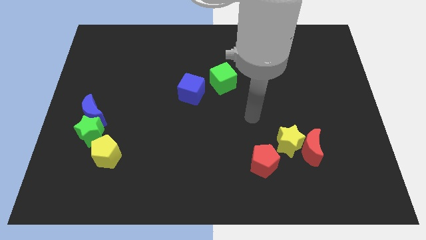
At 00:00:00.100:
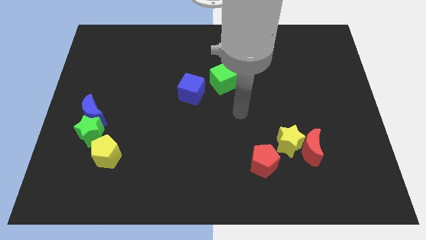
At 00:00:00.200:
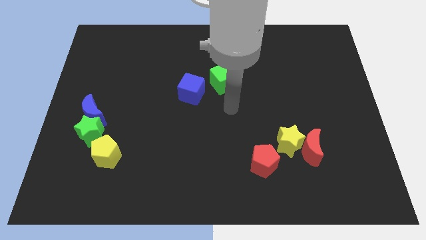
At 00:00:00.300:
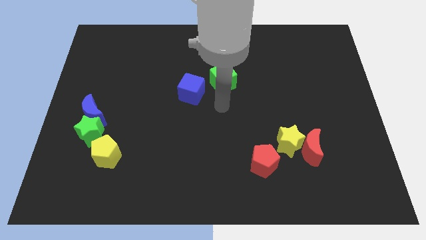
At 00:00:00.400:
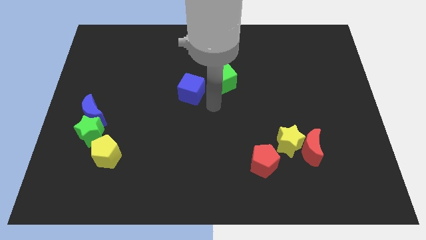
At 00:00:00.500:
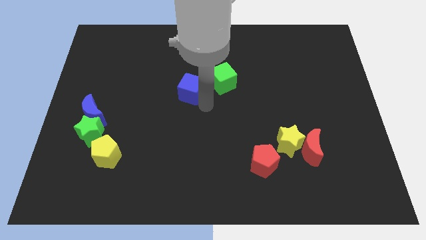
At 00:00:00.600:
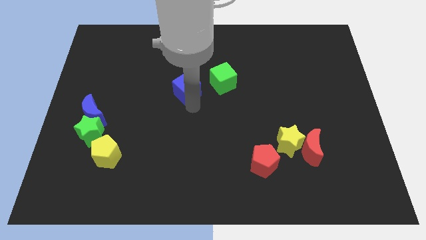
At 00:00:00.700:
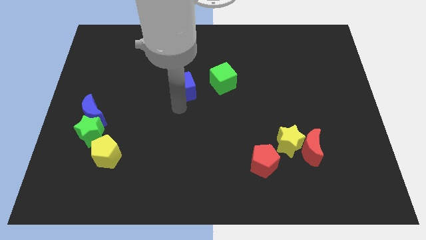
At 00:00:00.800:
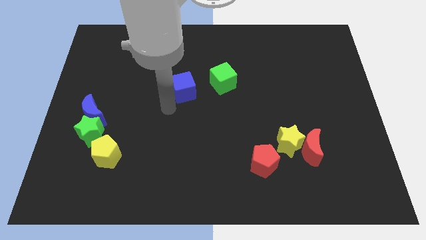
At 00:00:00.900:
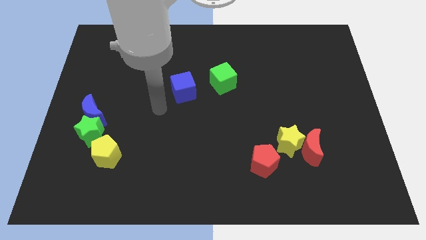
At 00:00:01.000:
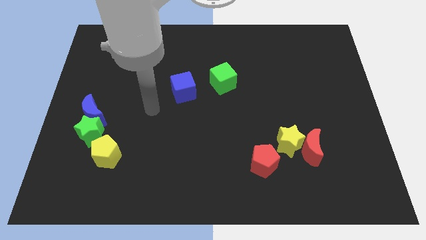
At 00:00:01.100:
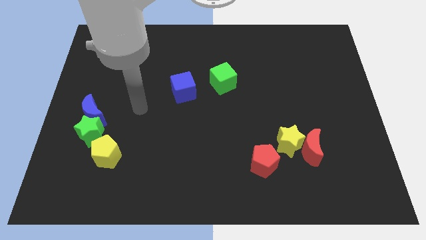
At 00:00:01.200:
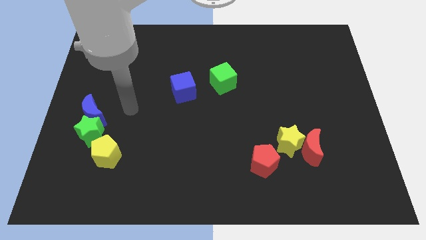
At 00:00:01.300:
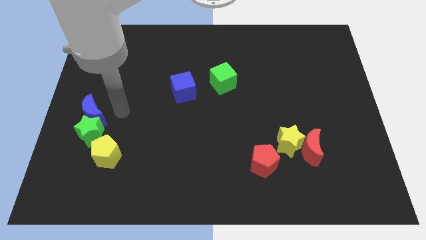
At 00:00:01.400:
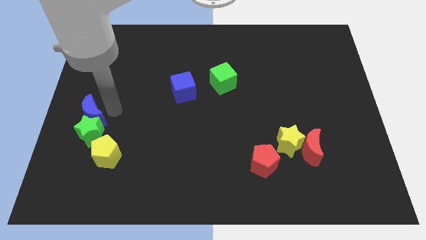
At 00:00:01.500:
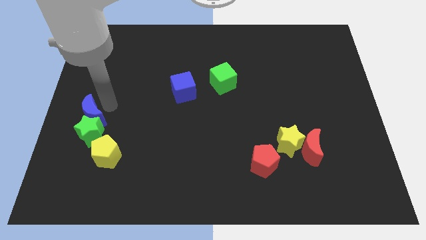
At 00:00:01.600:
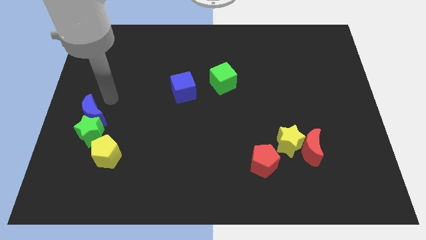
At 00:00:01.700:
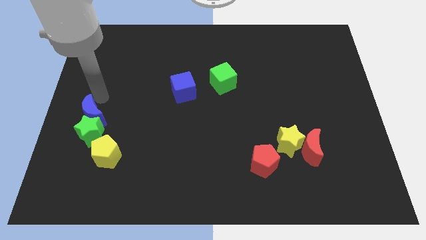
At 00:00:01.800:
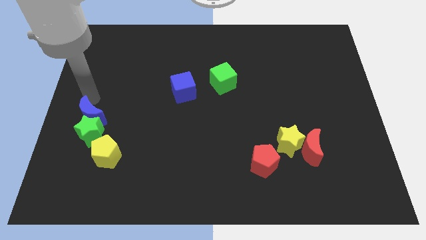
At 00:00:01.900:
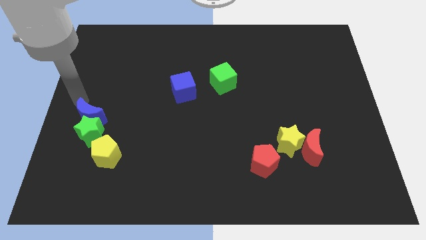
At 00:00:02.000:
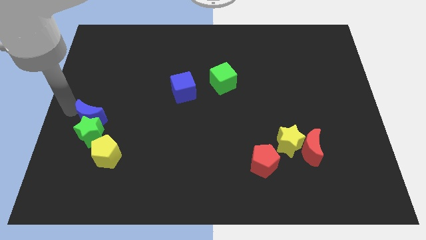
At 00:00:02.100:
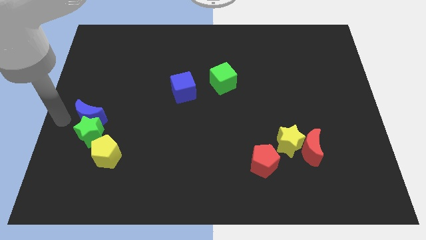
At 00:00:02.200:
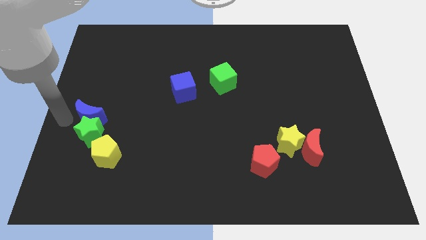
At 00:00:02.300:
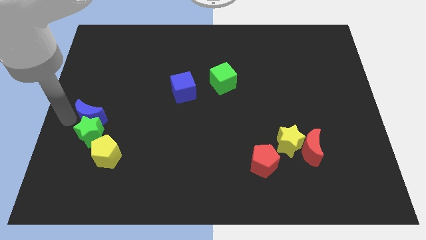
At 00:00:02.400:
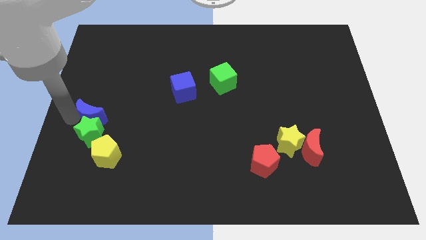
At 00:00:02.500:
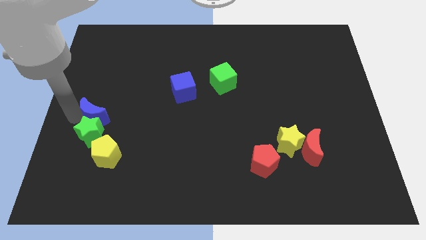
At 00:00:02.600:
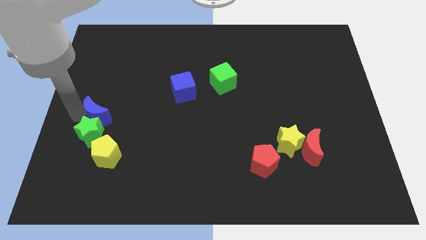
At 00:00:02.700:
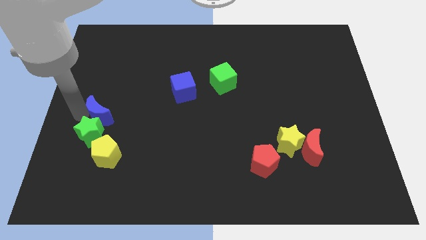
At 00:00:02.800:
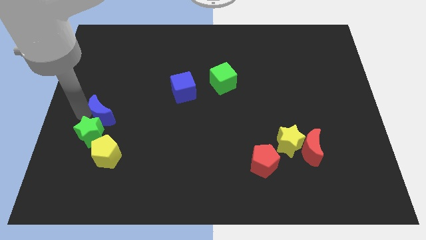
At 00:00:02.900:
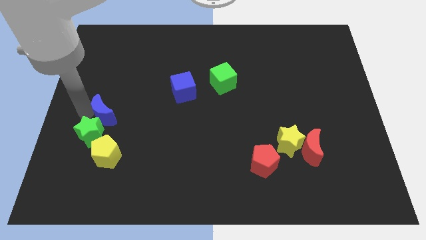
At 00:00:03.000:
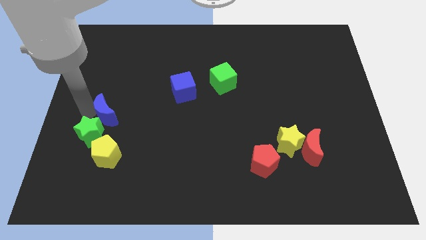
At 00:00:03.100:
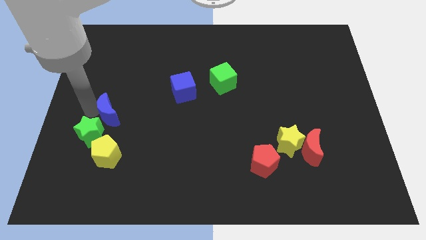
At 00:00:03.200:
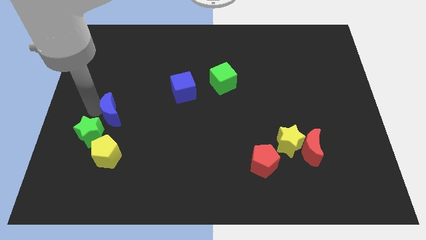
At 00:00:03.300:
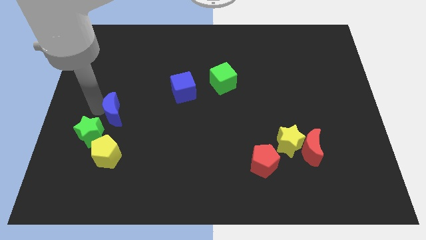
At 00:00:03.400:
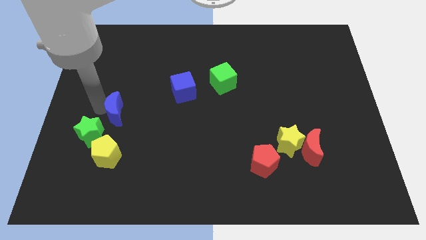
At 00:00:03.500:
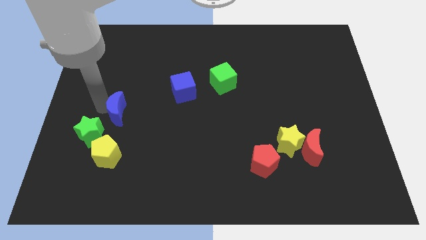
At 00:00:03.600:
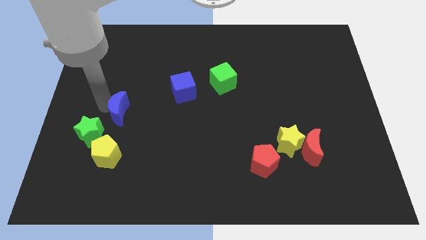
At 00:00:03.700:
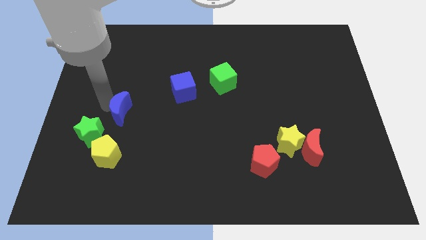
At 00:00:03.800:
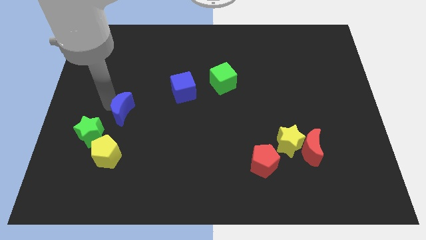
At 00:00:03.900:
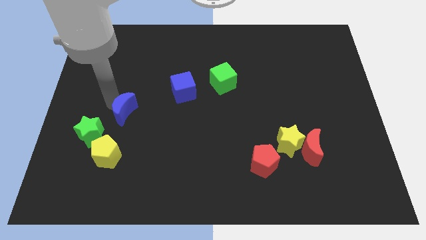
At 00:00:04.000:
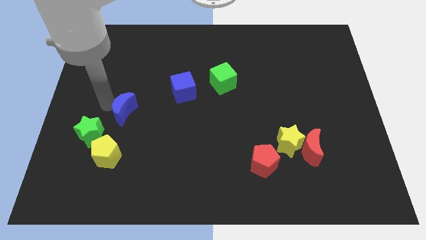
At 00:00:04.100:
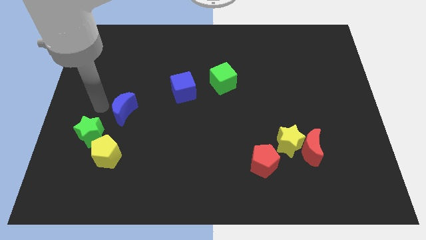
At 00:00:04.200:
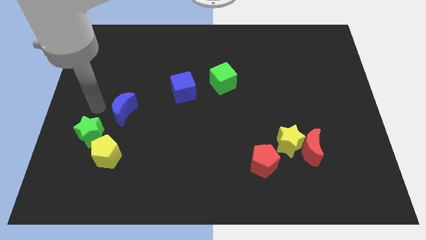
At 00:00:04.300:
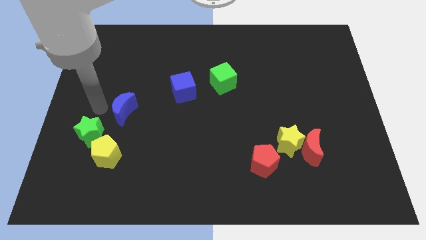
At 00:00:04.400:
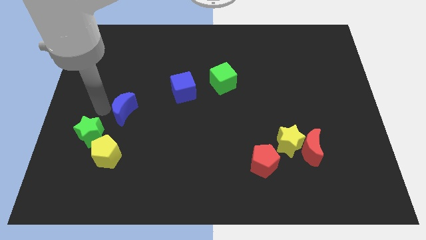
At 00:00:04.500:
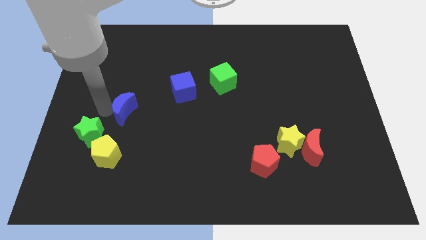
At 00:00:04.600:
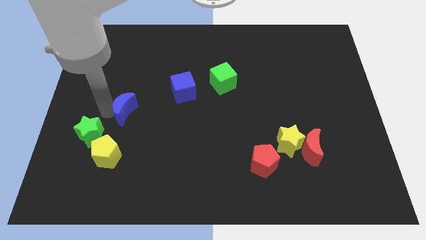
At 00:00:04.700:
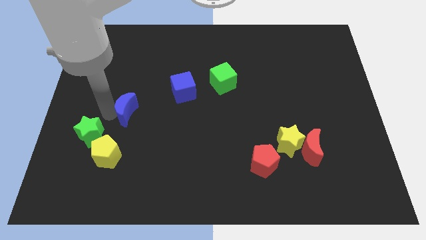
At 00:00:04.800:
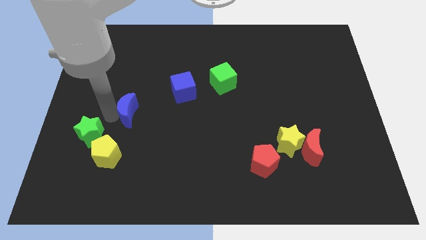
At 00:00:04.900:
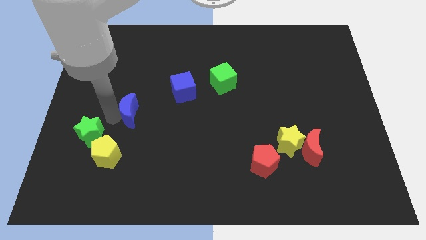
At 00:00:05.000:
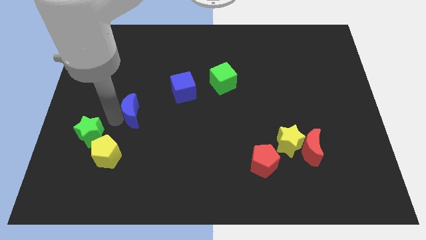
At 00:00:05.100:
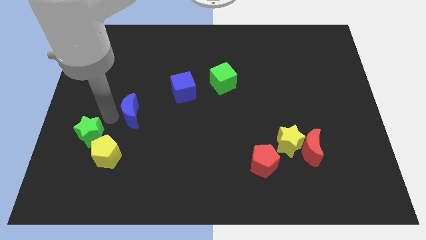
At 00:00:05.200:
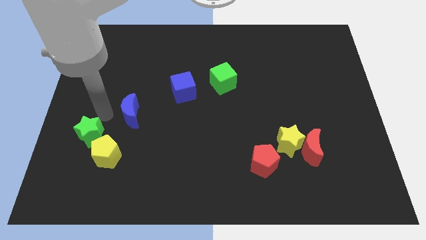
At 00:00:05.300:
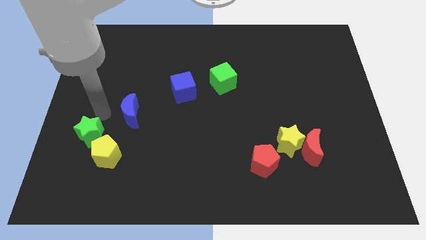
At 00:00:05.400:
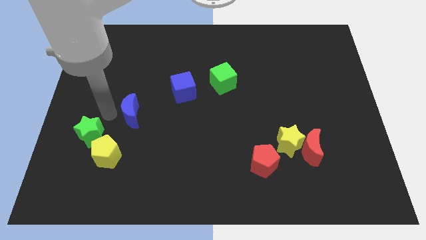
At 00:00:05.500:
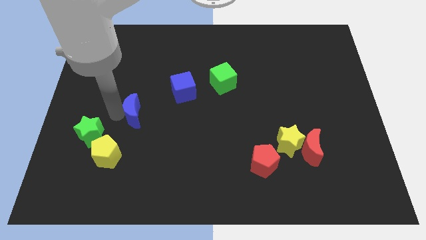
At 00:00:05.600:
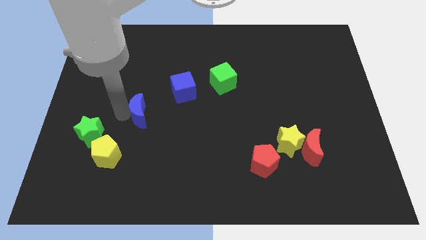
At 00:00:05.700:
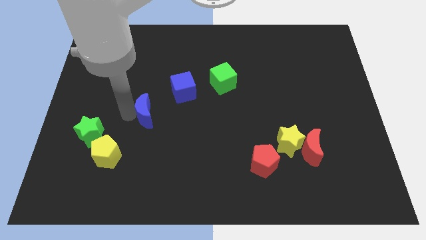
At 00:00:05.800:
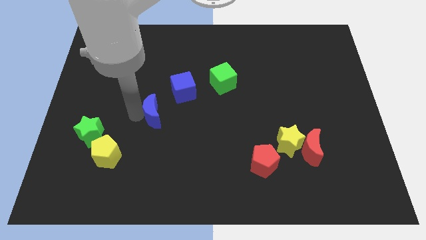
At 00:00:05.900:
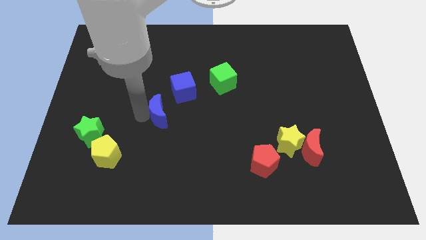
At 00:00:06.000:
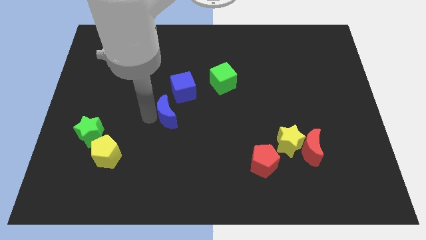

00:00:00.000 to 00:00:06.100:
push the blue moon to the middle
